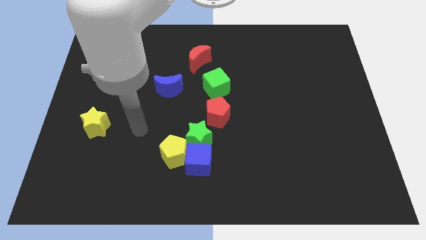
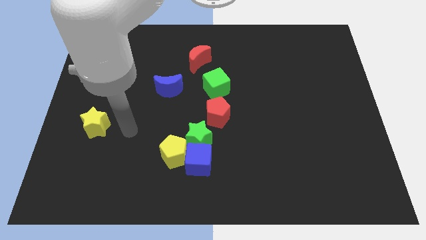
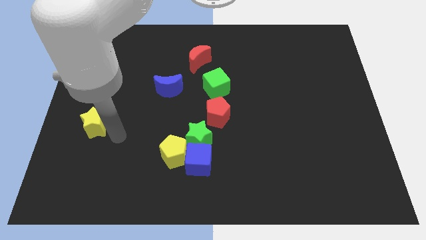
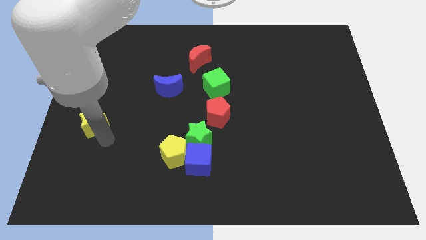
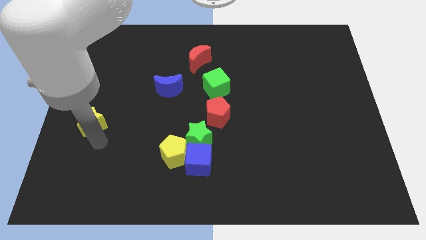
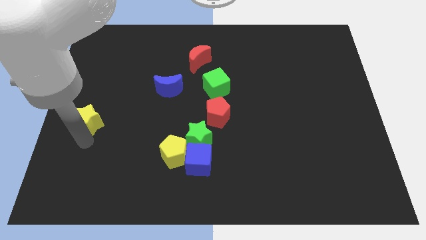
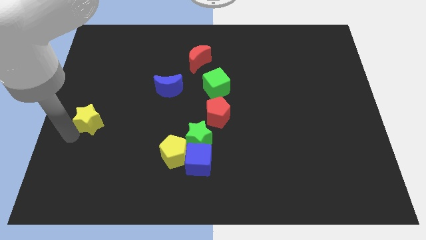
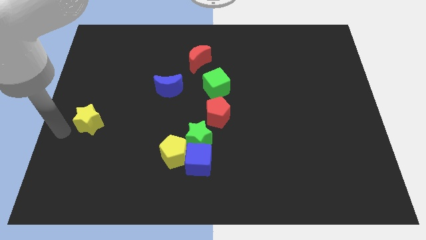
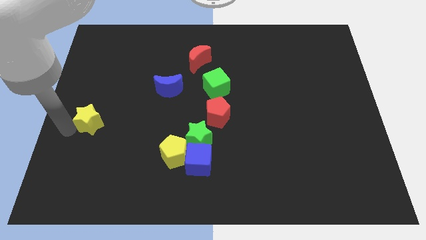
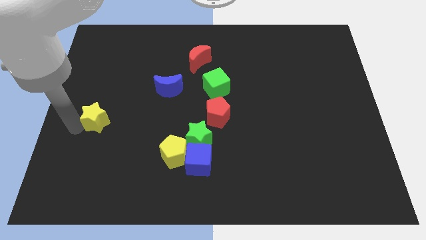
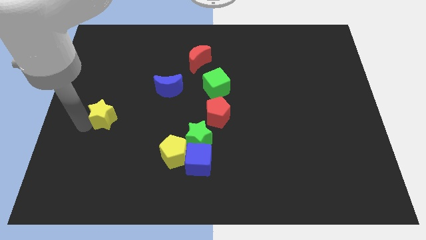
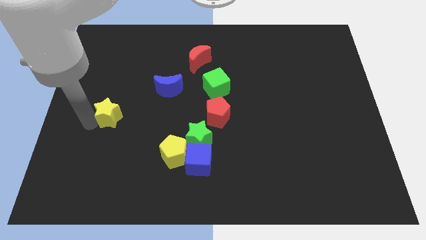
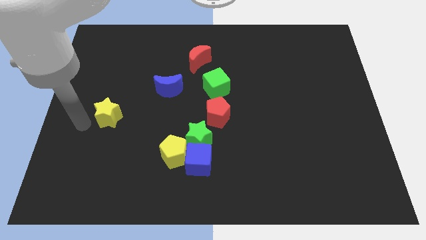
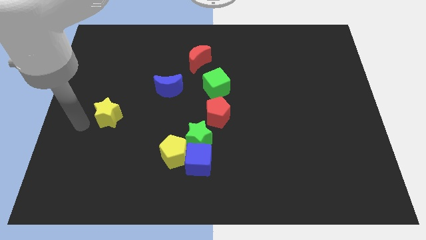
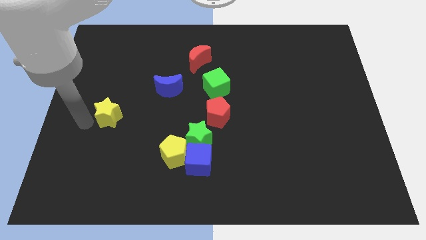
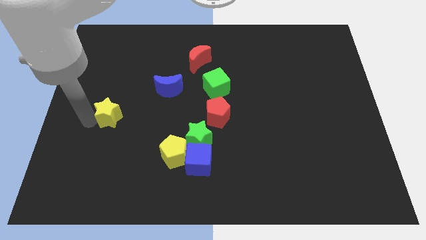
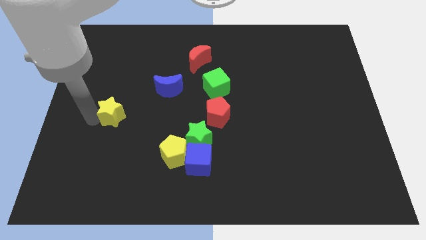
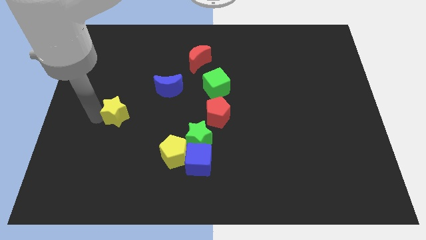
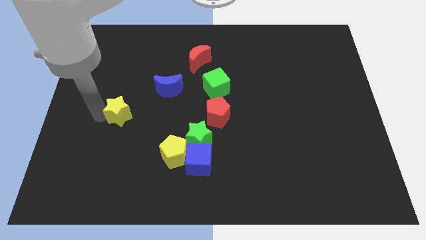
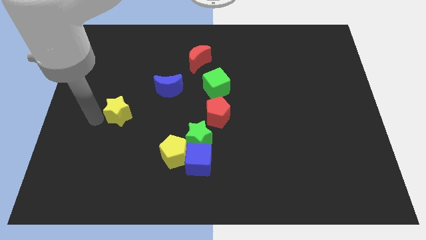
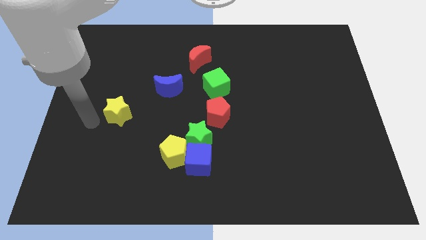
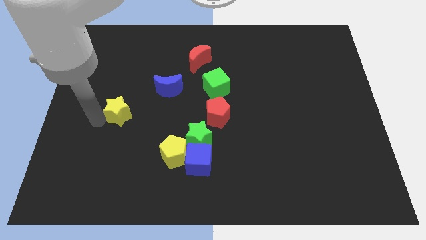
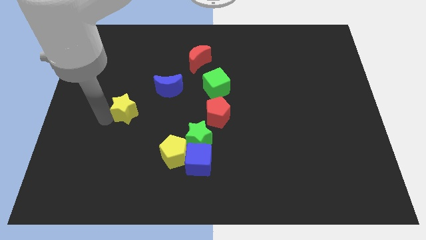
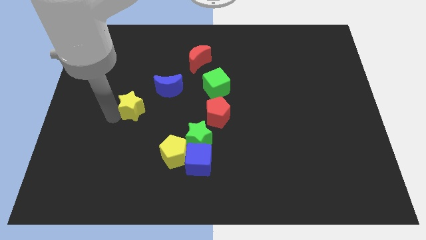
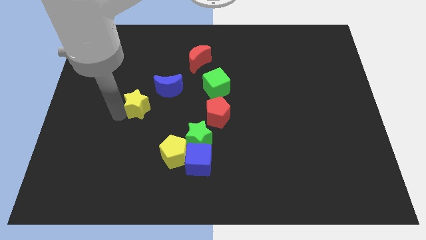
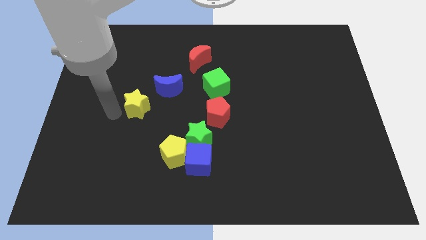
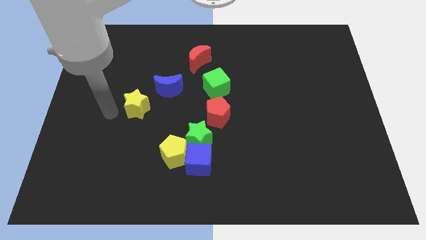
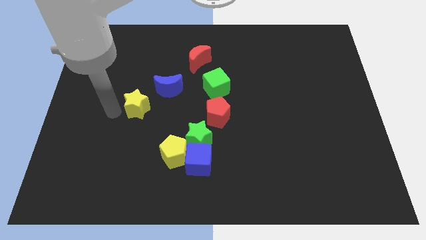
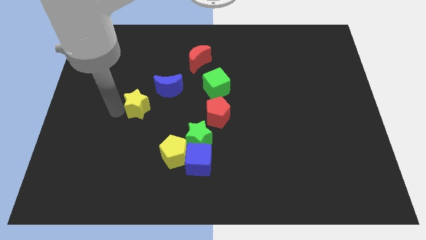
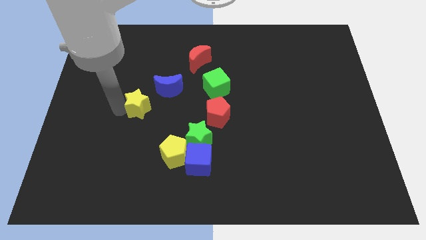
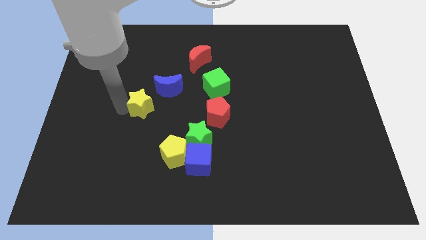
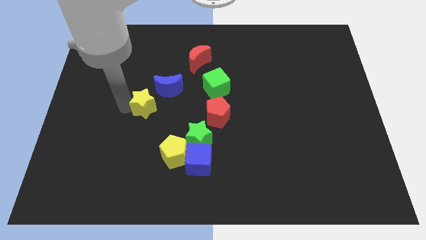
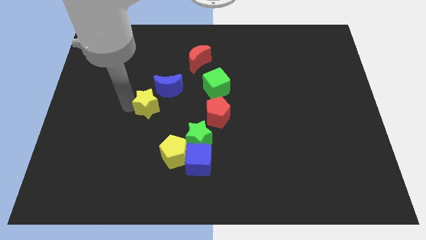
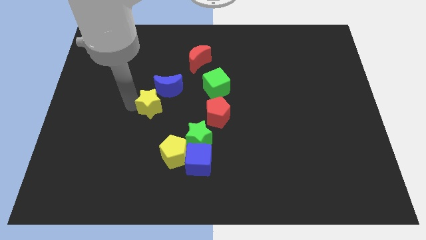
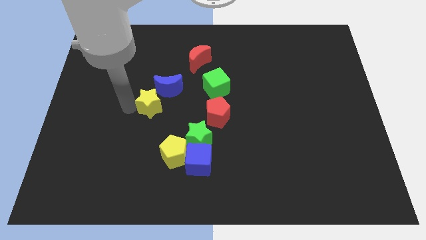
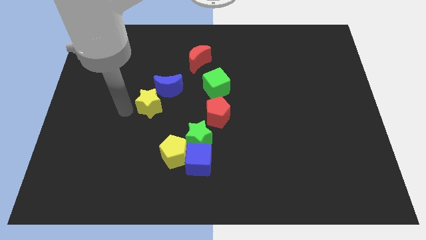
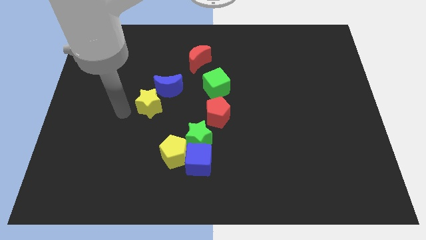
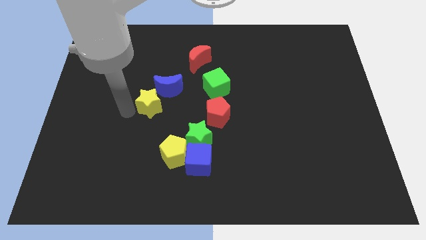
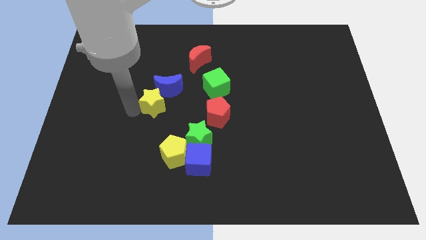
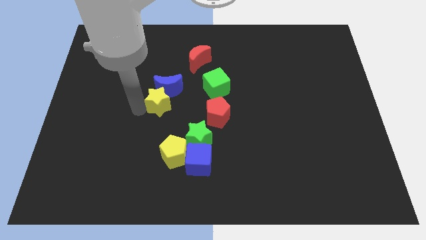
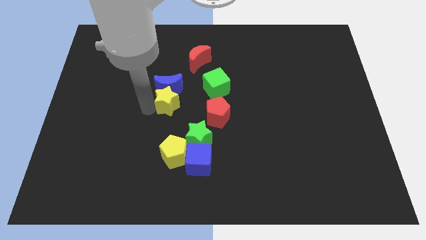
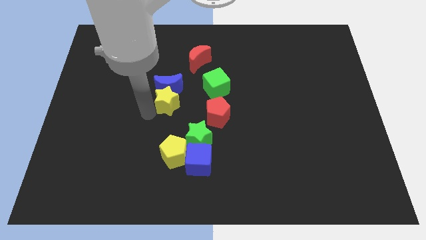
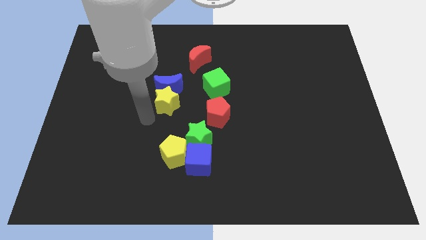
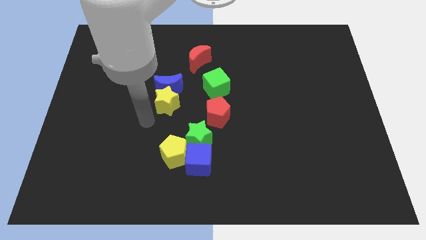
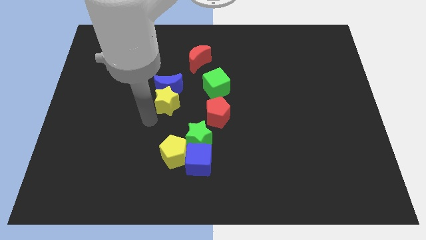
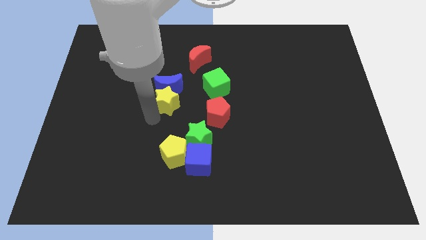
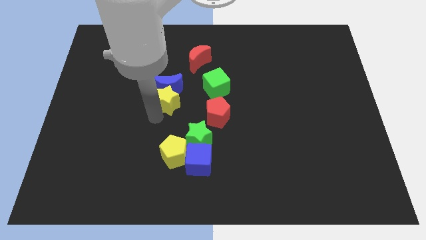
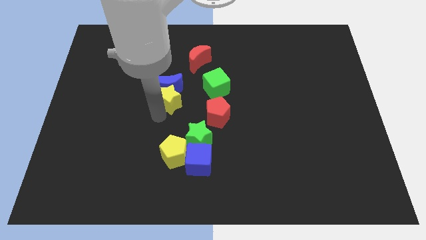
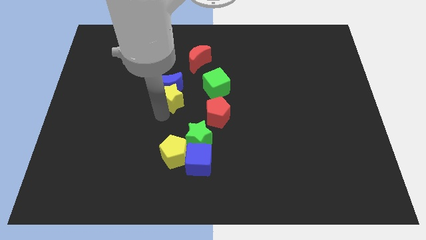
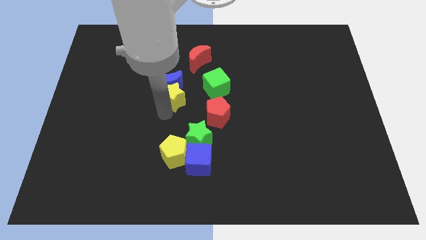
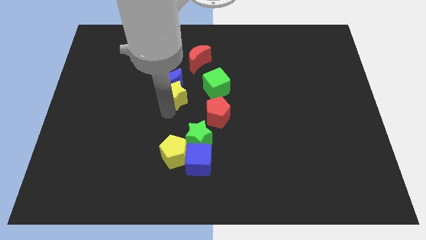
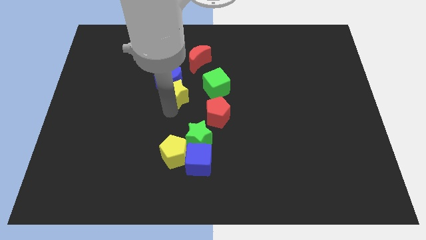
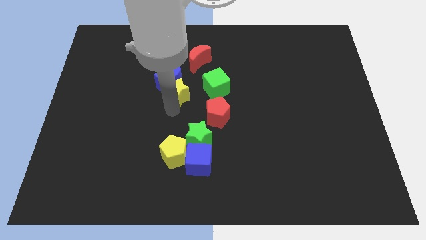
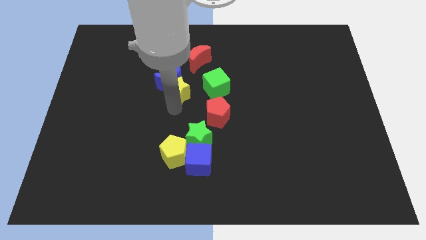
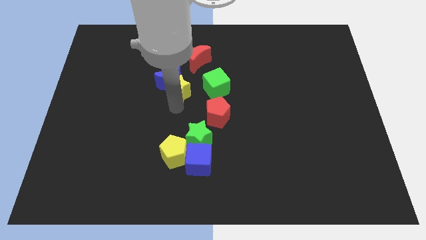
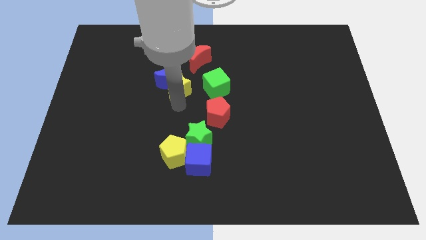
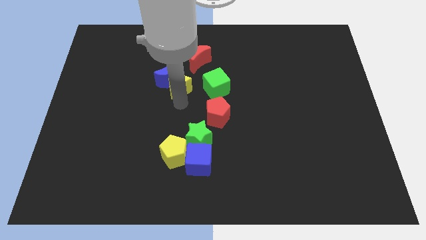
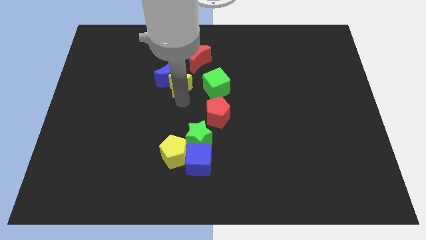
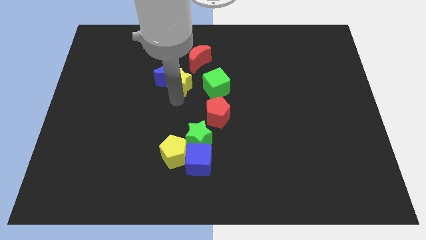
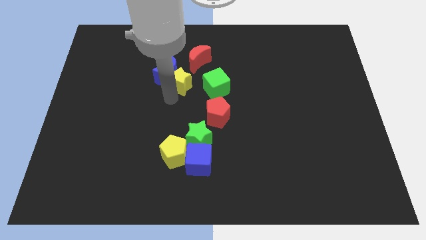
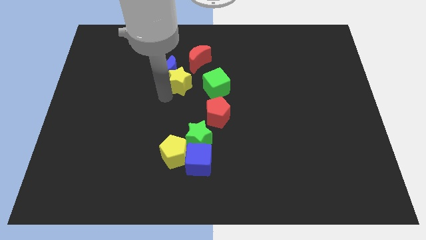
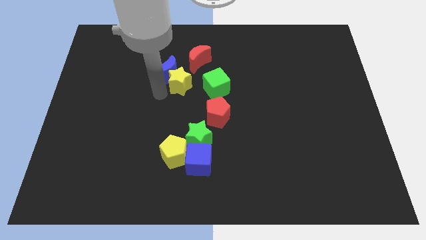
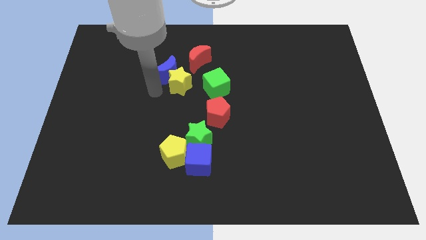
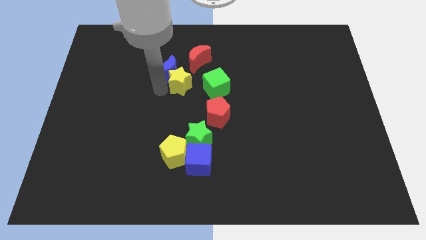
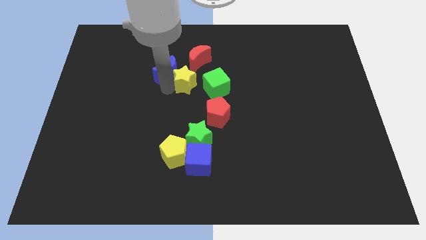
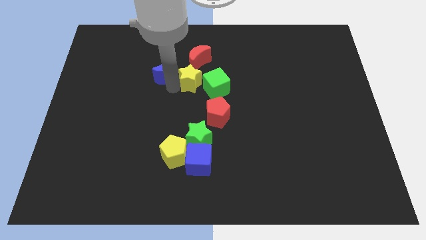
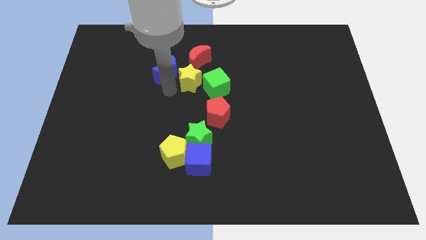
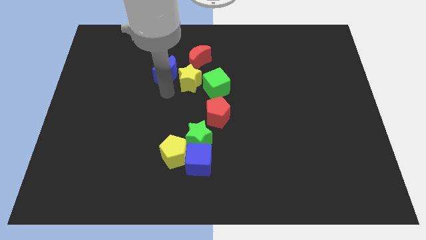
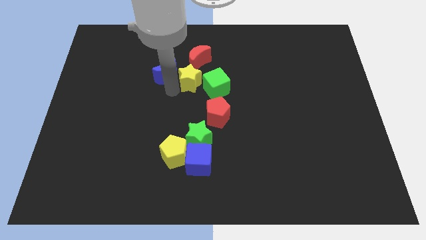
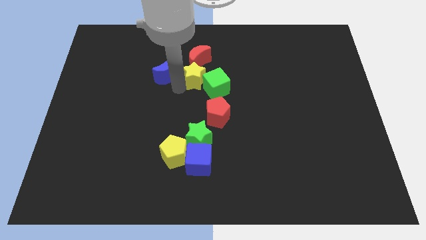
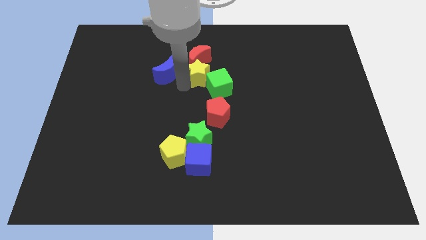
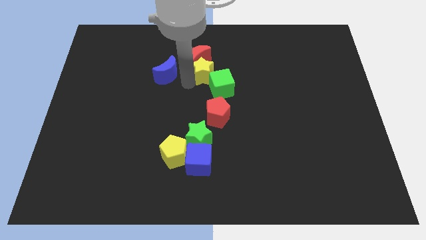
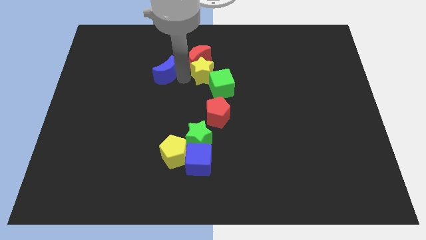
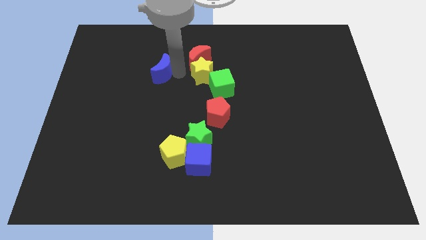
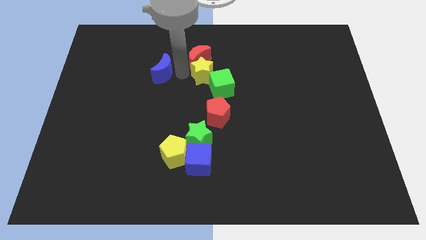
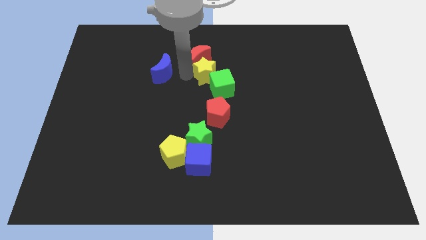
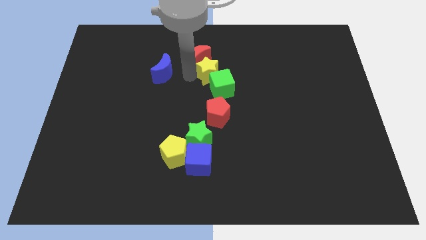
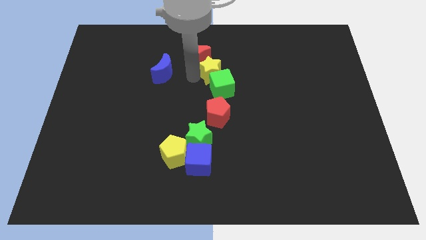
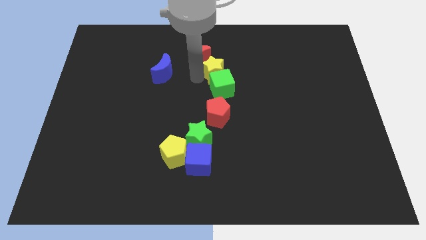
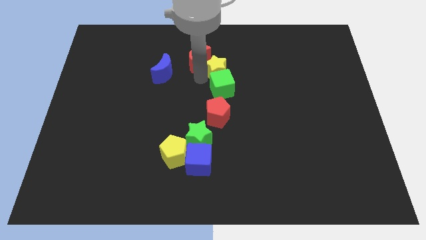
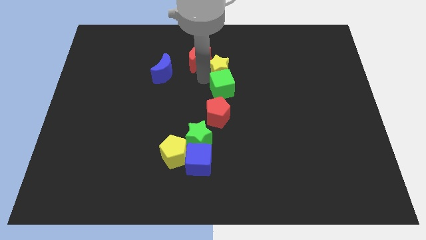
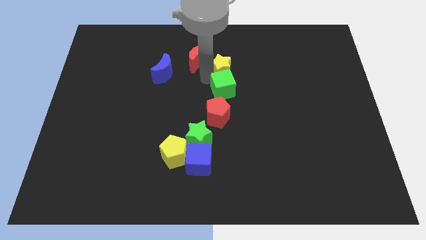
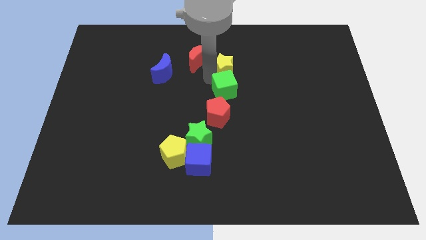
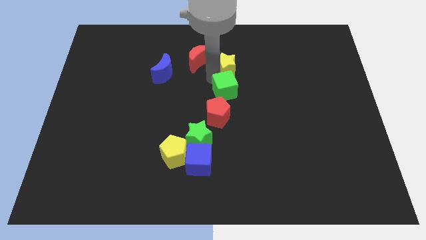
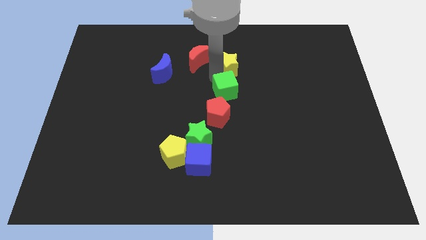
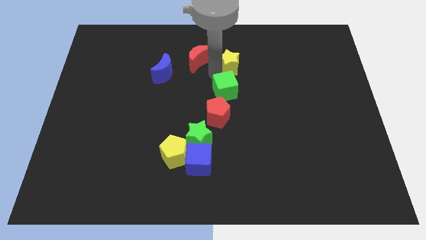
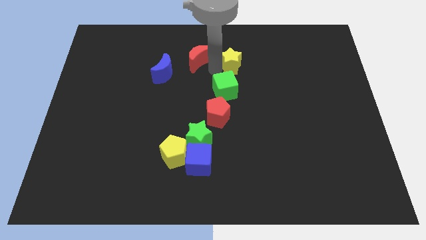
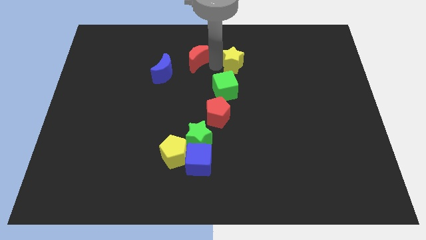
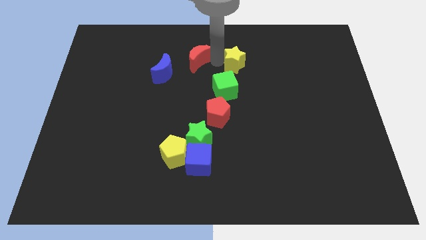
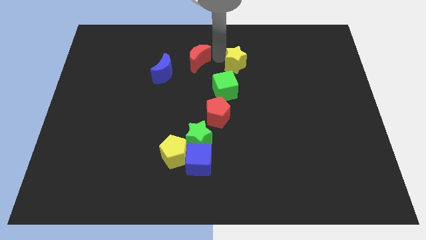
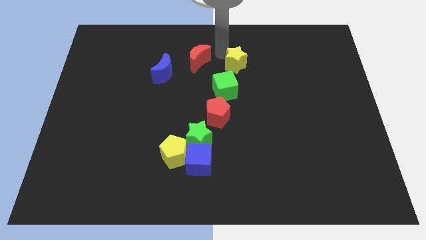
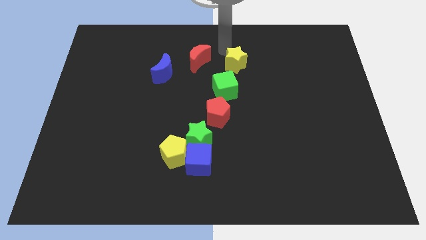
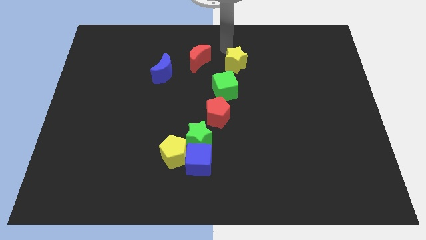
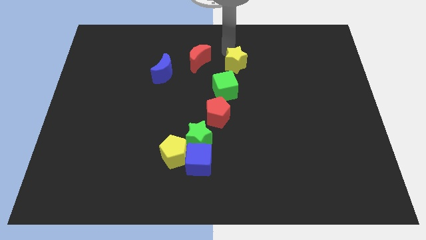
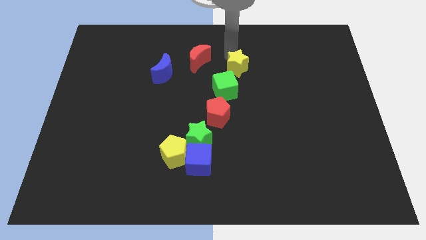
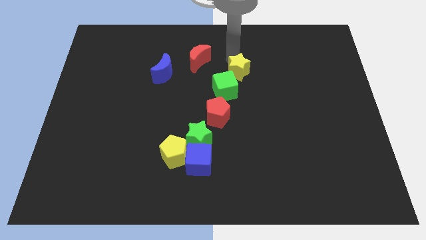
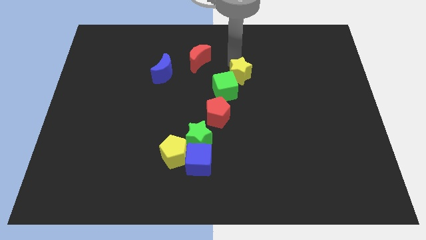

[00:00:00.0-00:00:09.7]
put the yellow star just right of the green cube
